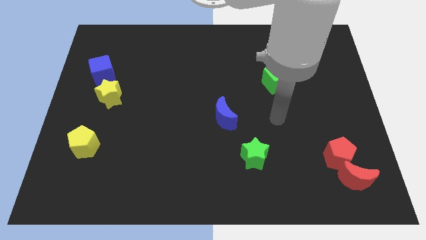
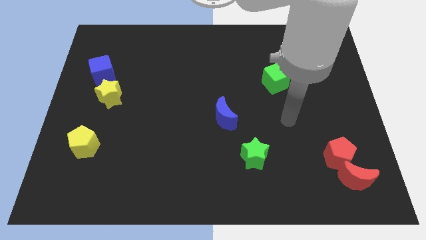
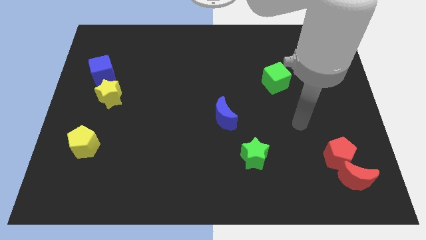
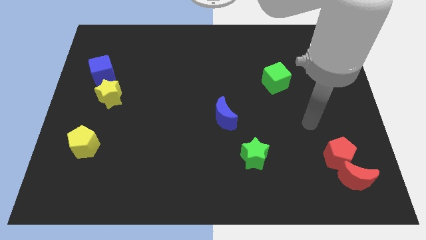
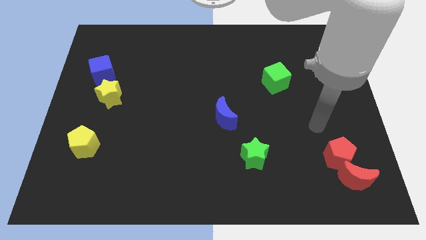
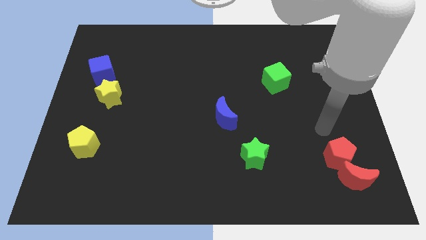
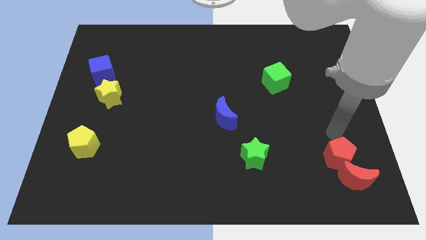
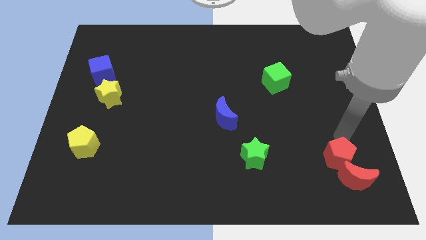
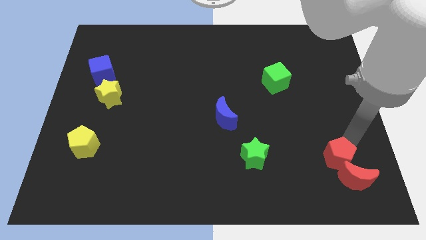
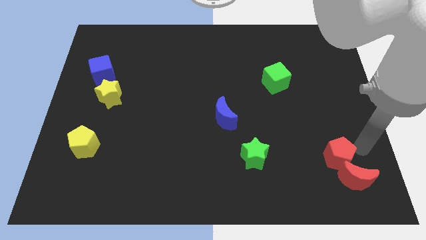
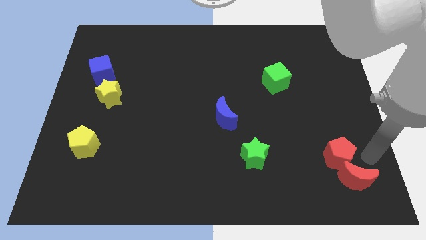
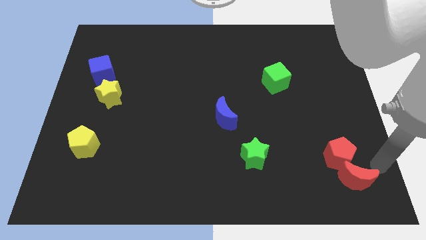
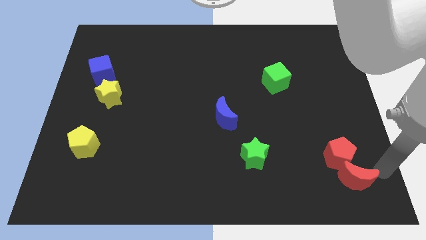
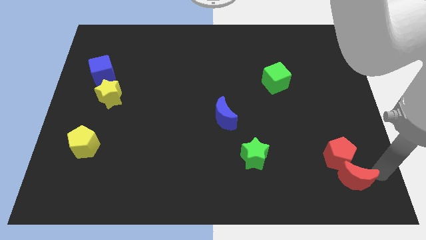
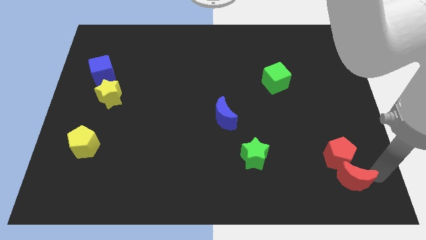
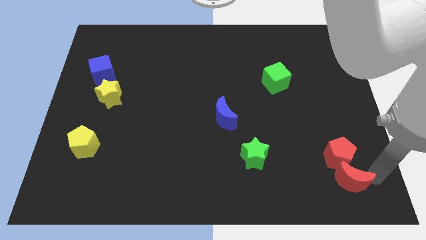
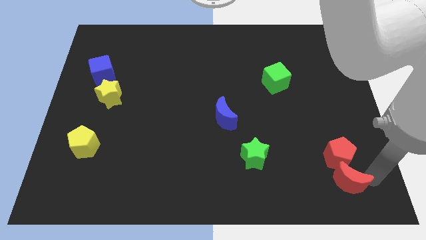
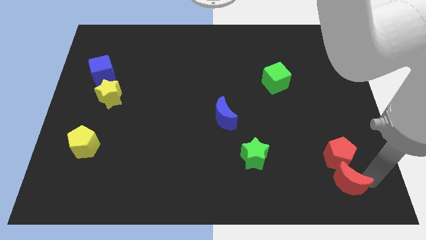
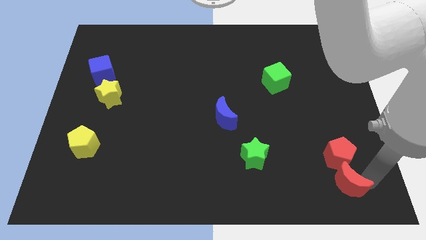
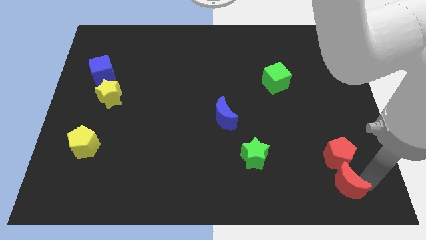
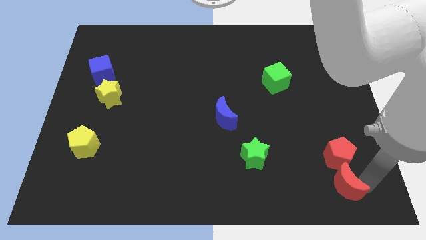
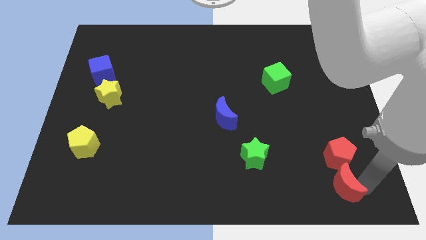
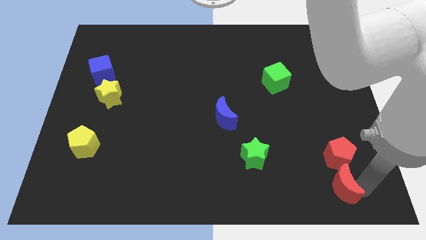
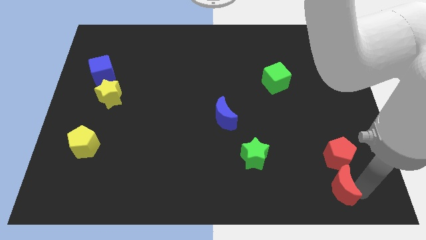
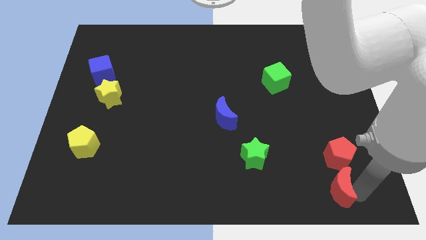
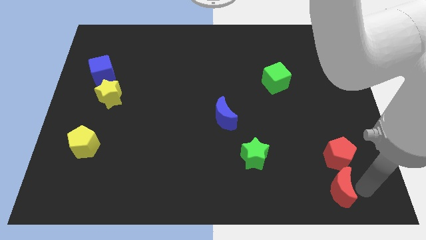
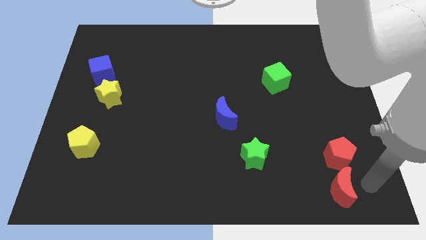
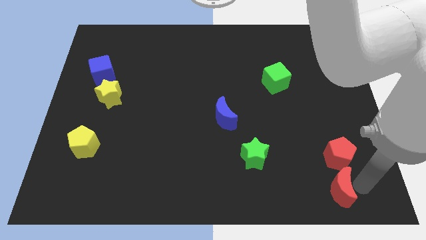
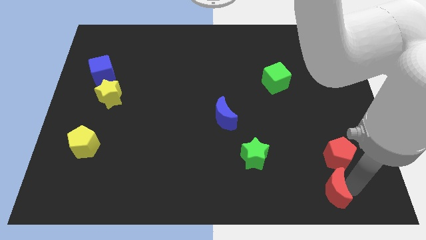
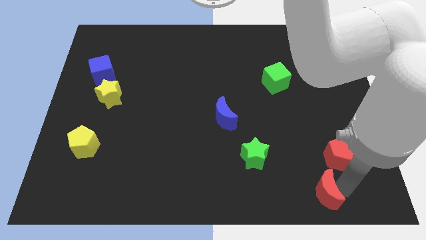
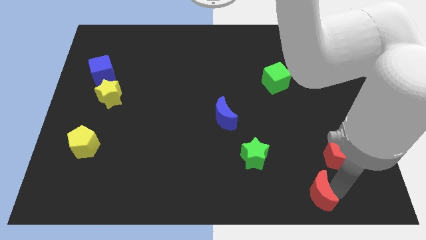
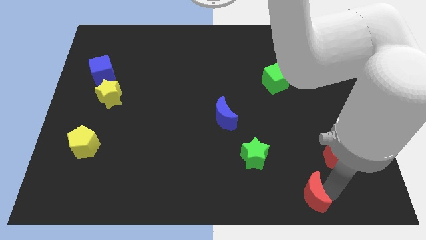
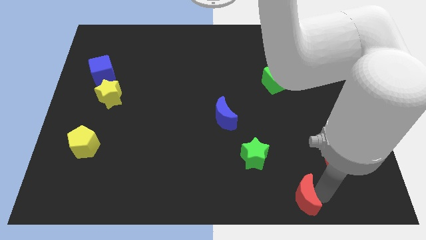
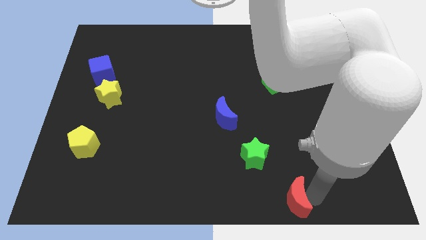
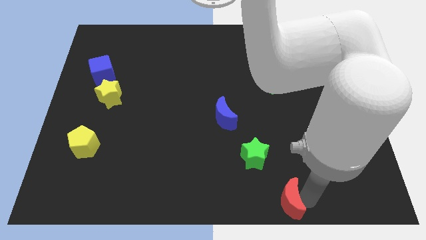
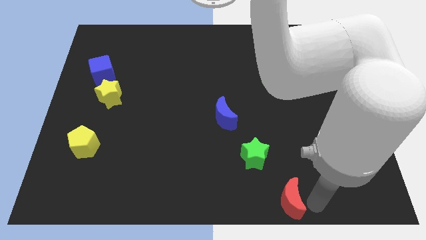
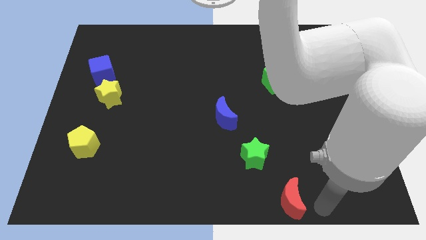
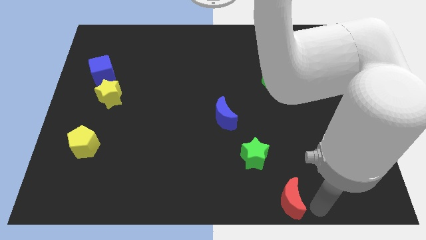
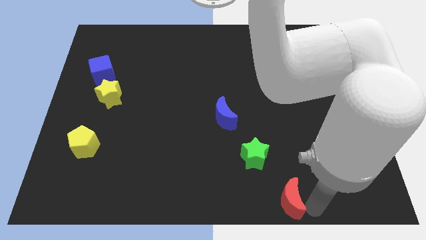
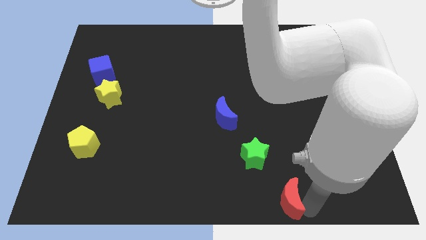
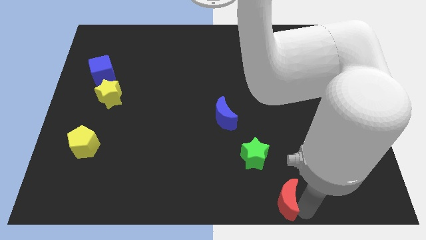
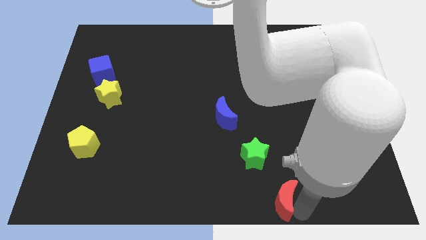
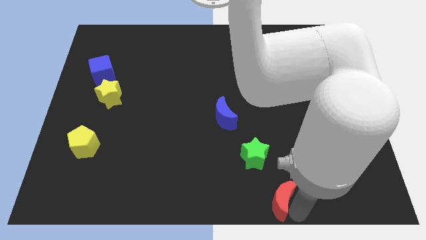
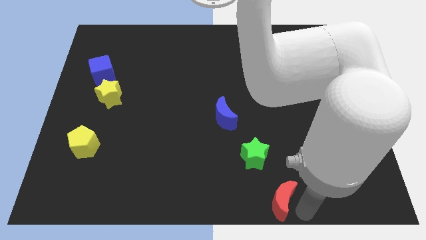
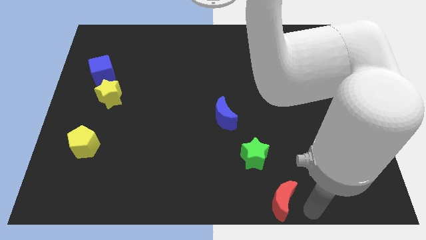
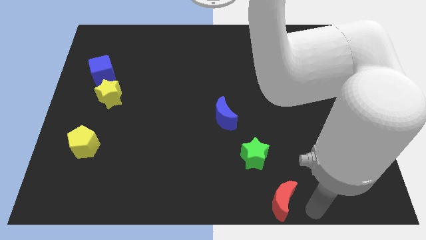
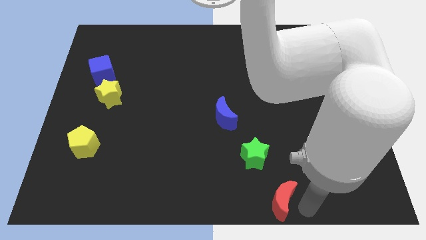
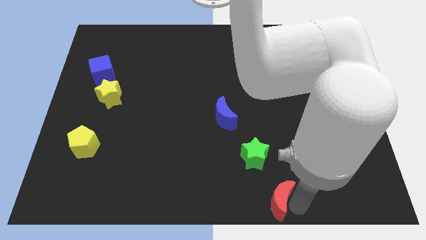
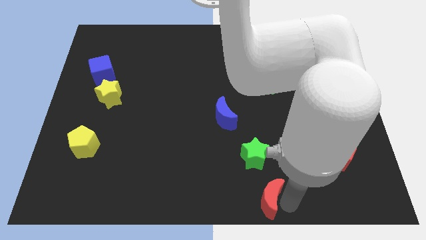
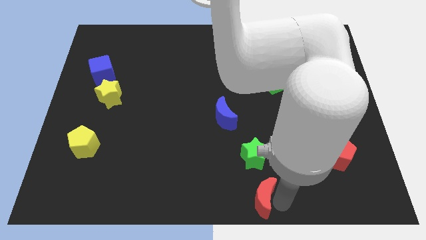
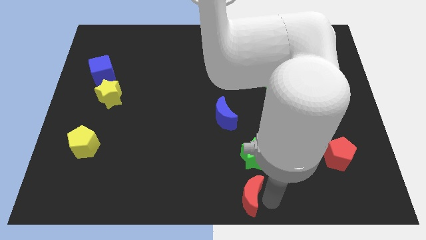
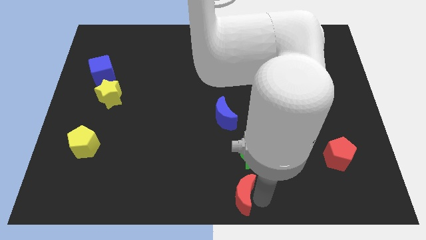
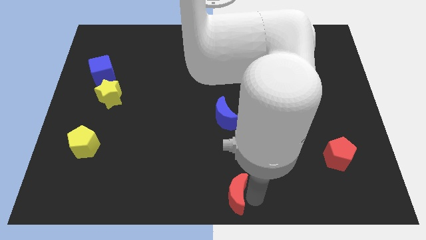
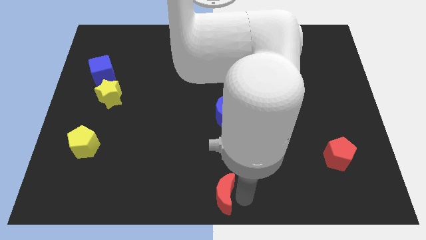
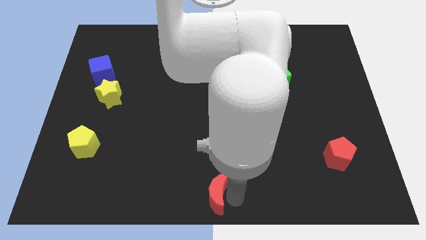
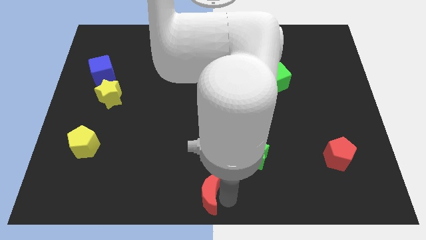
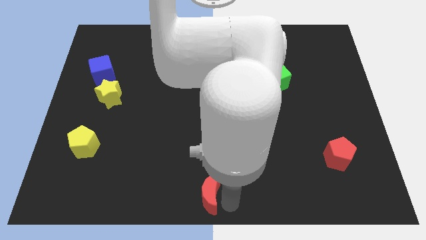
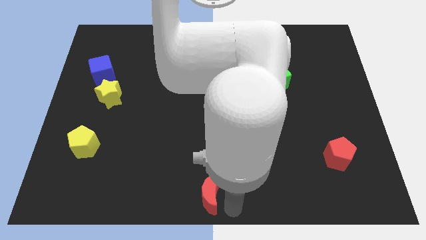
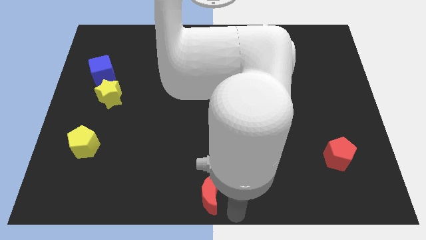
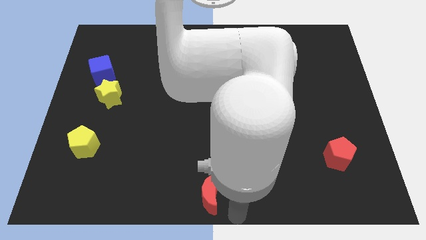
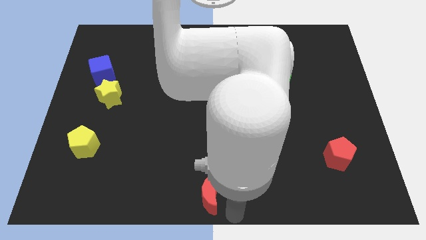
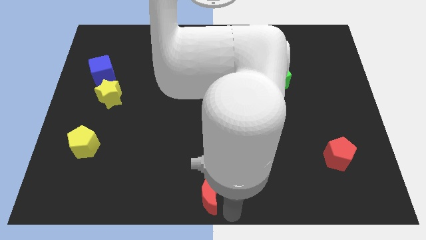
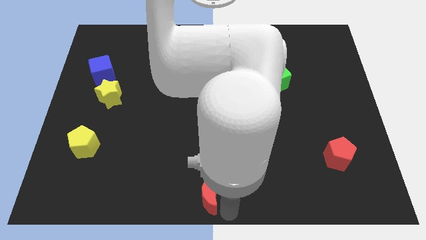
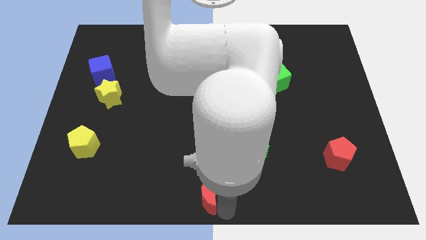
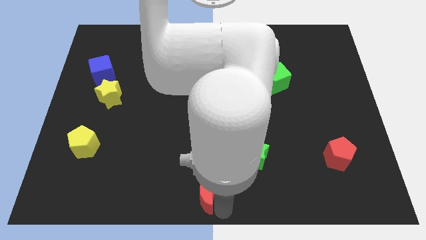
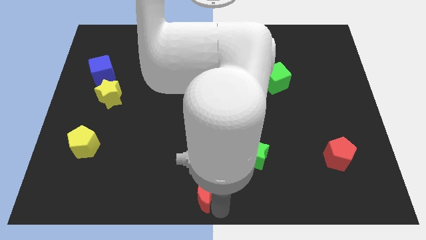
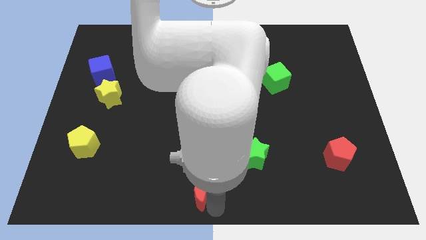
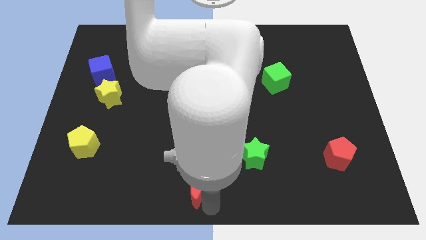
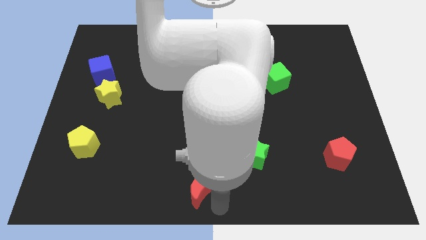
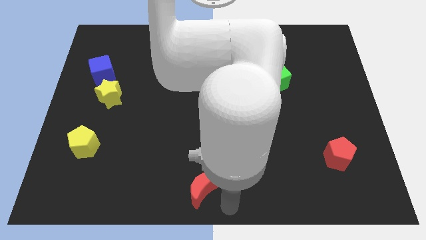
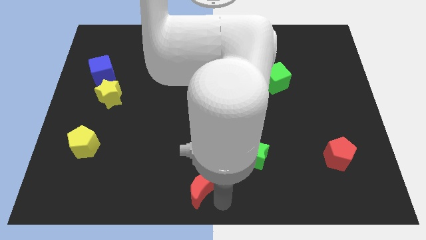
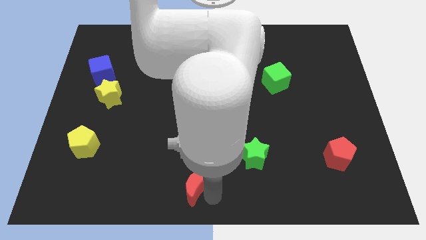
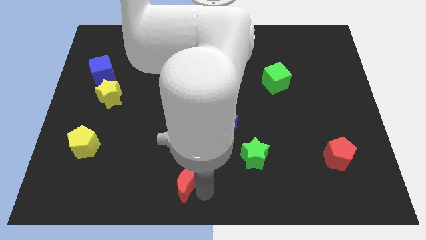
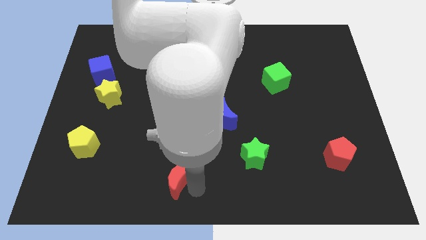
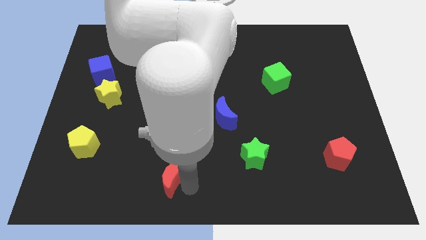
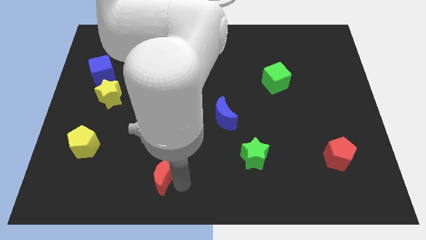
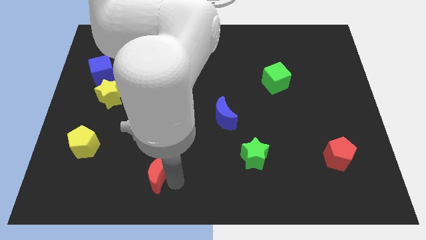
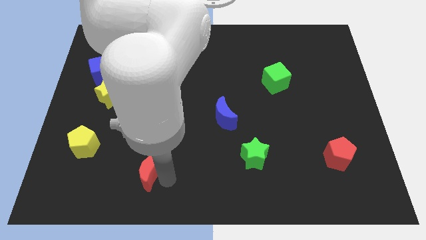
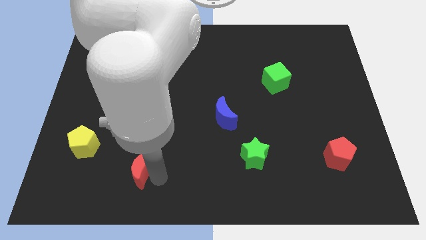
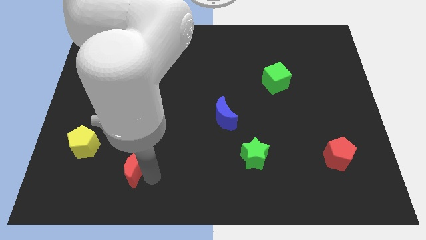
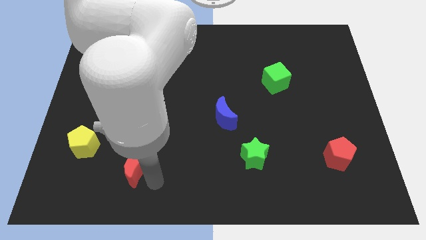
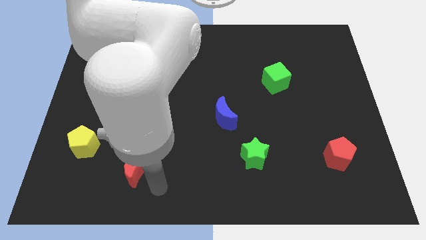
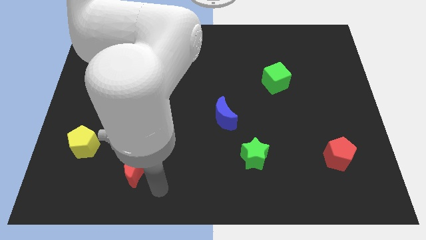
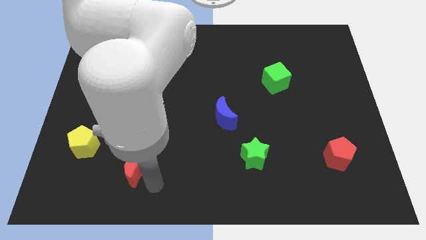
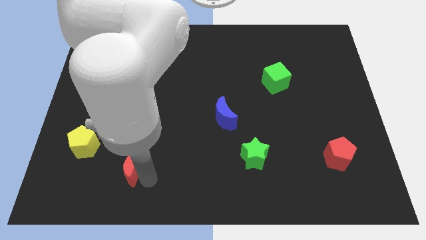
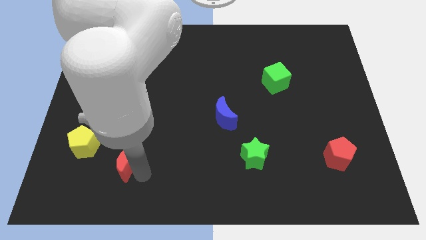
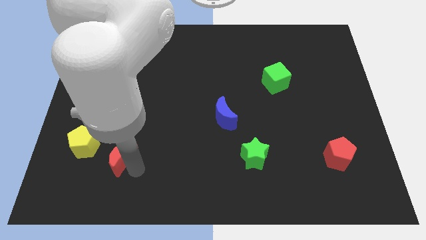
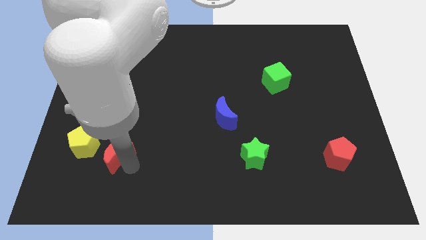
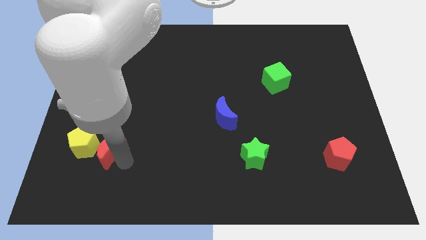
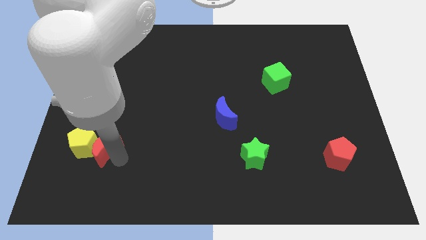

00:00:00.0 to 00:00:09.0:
put the red moon to the yellow pentagon
